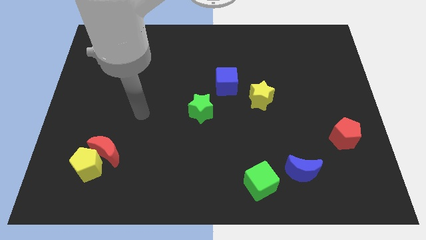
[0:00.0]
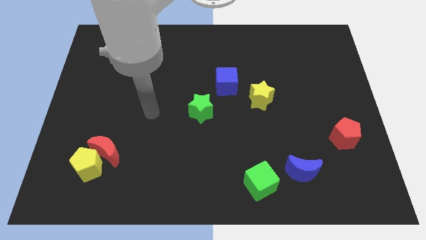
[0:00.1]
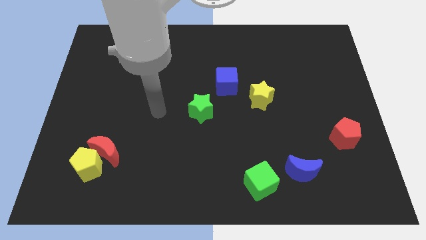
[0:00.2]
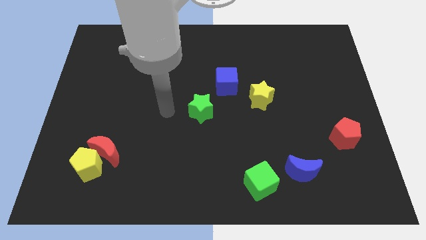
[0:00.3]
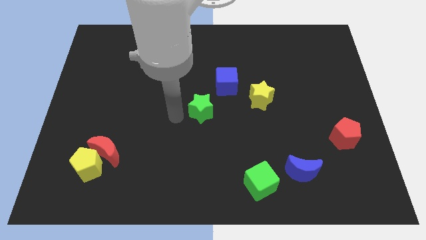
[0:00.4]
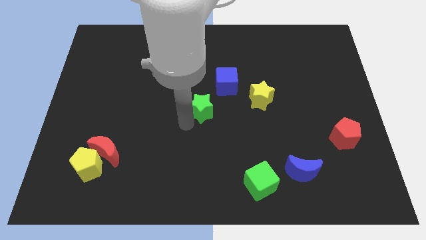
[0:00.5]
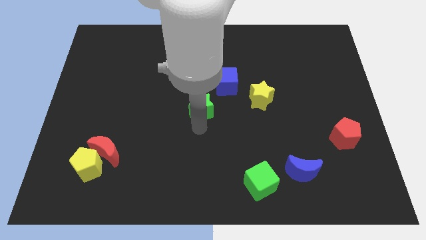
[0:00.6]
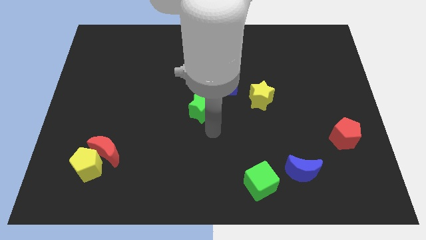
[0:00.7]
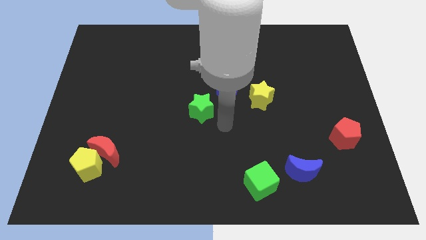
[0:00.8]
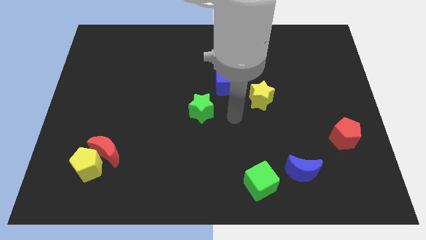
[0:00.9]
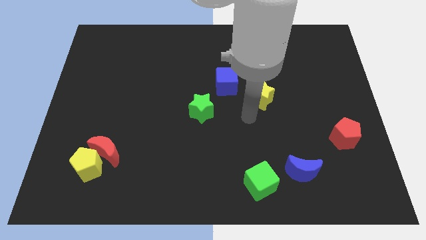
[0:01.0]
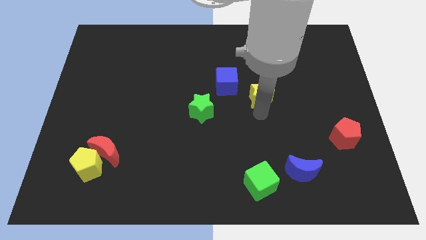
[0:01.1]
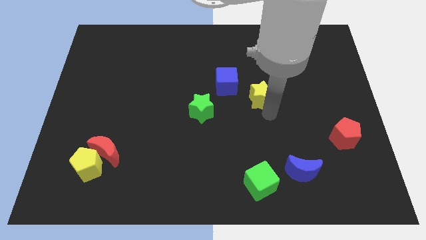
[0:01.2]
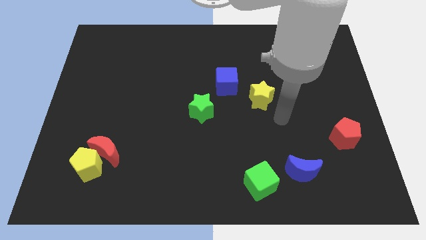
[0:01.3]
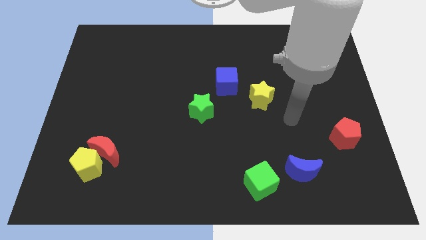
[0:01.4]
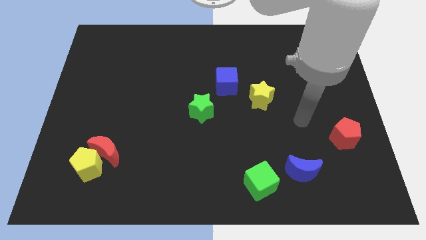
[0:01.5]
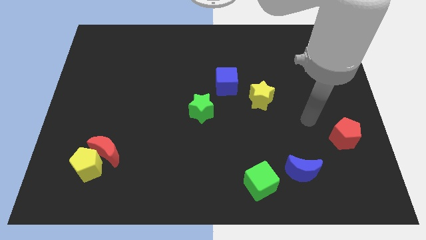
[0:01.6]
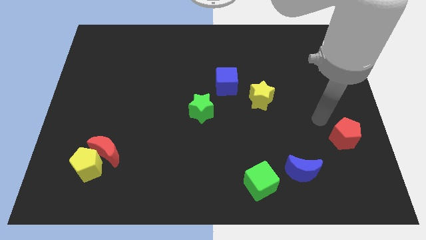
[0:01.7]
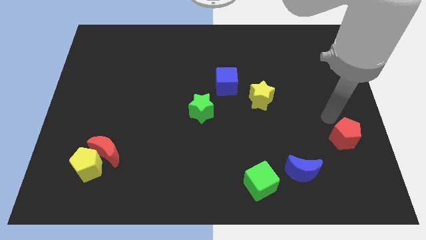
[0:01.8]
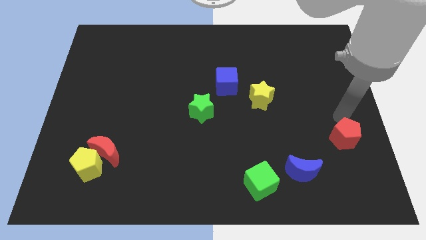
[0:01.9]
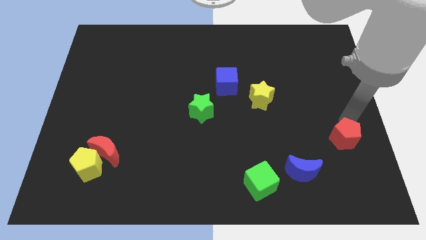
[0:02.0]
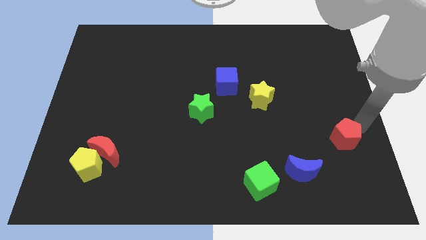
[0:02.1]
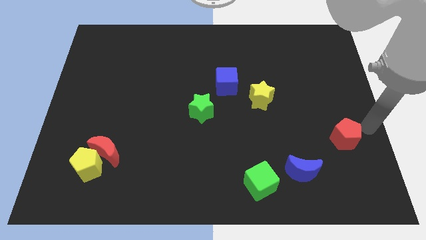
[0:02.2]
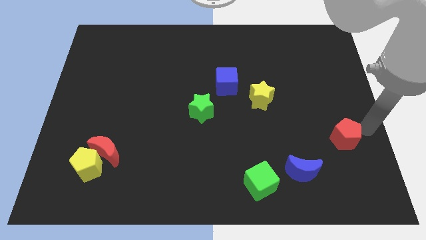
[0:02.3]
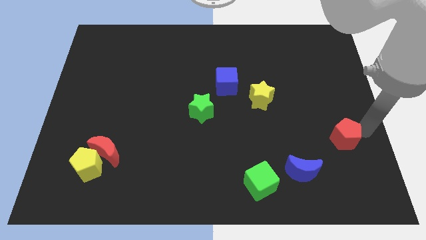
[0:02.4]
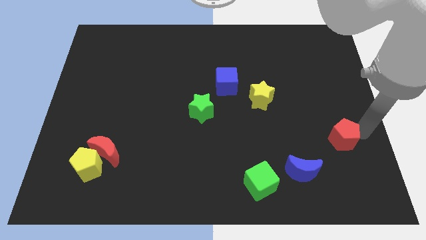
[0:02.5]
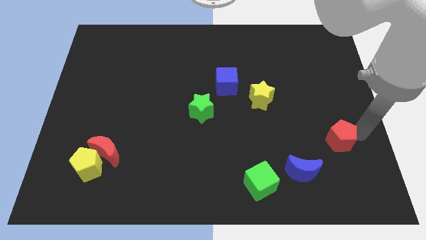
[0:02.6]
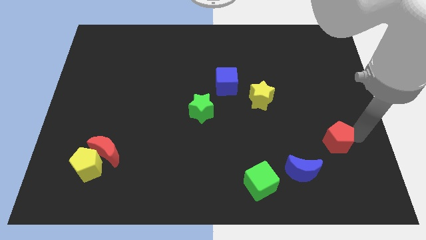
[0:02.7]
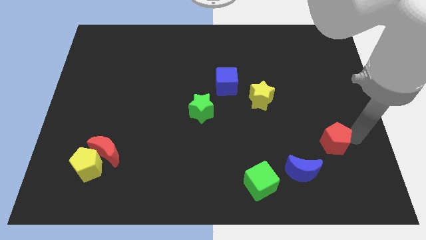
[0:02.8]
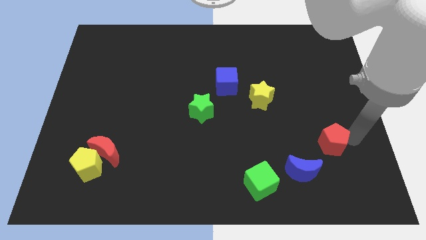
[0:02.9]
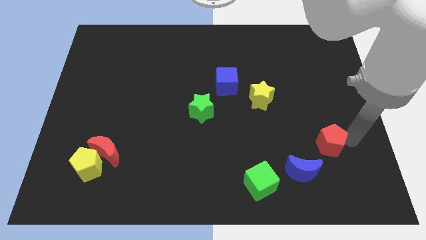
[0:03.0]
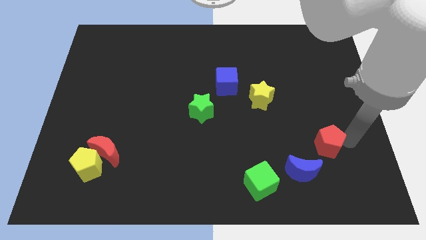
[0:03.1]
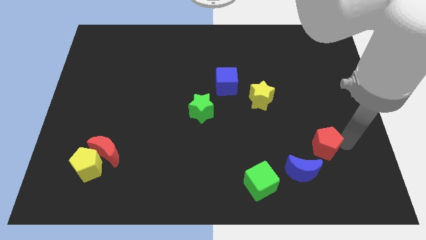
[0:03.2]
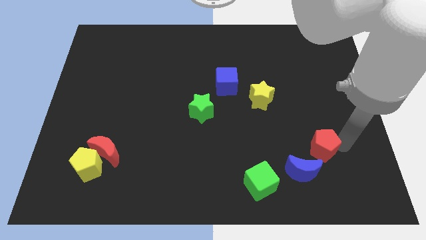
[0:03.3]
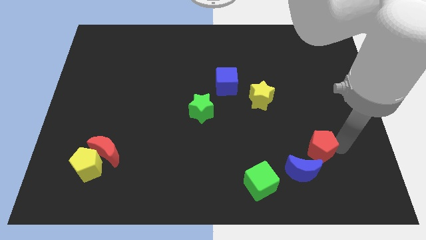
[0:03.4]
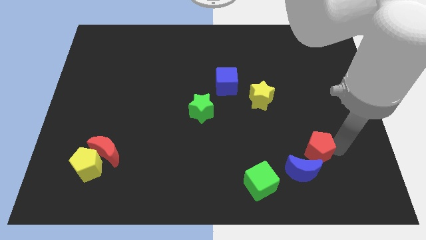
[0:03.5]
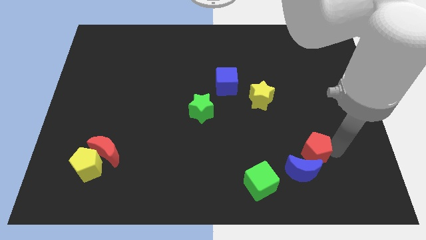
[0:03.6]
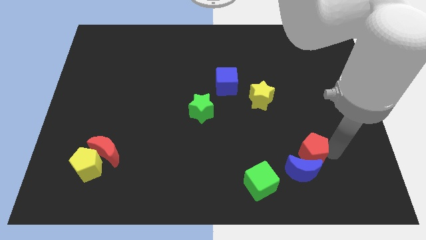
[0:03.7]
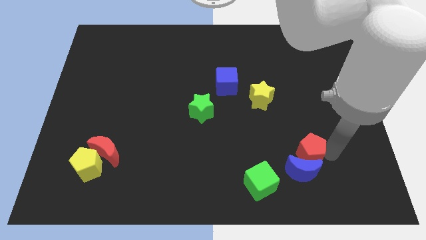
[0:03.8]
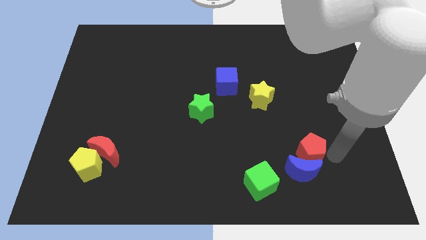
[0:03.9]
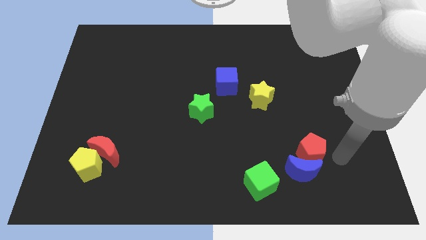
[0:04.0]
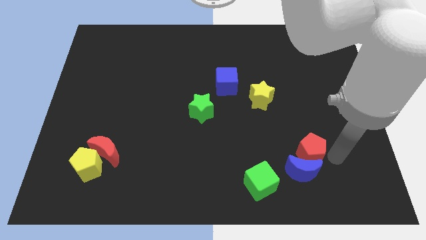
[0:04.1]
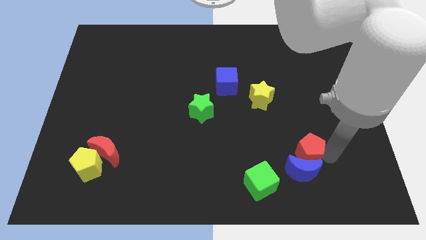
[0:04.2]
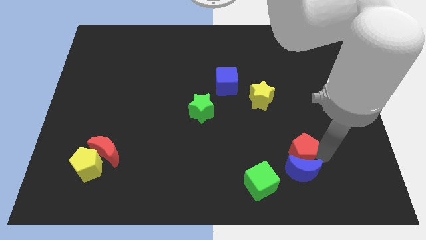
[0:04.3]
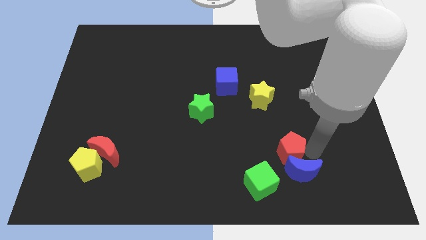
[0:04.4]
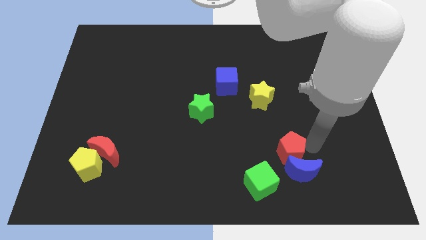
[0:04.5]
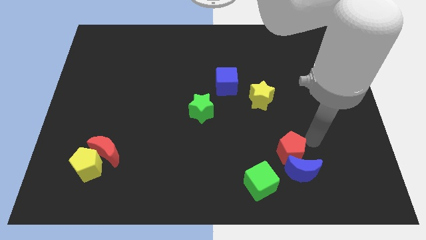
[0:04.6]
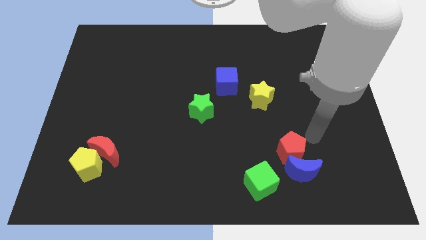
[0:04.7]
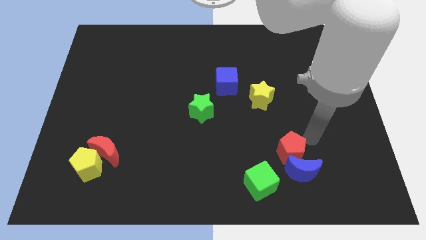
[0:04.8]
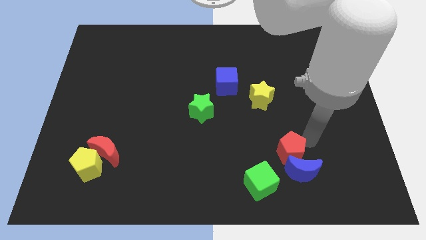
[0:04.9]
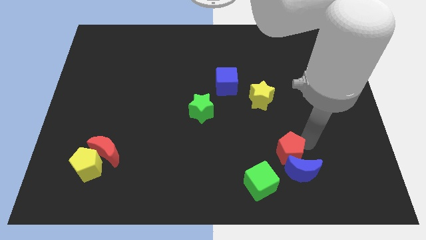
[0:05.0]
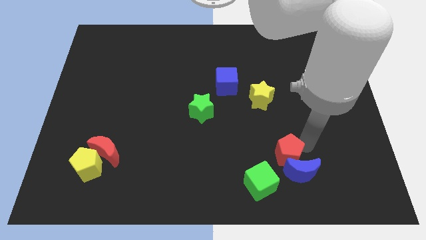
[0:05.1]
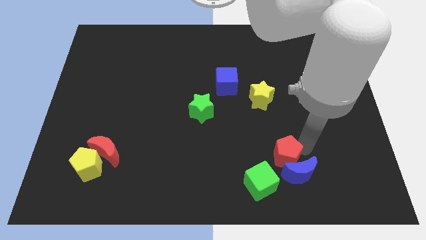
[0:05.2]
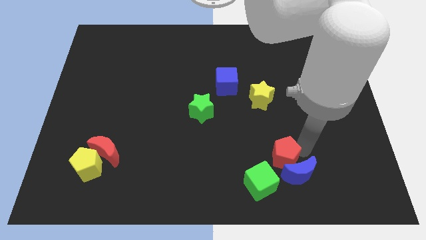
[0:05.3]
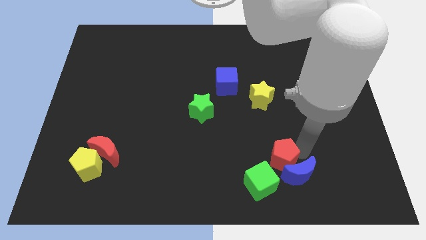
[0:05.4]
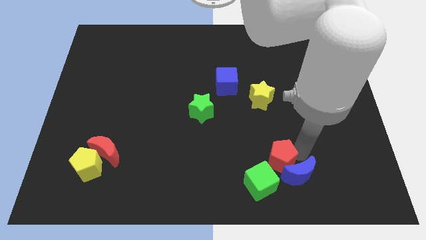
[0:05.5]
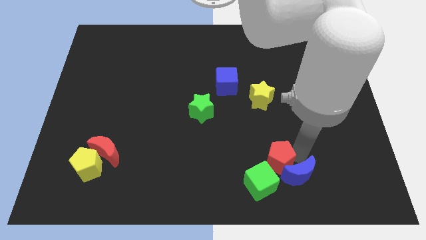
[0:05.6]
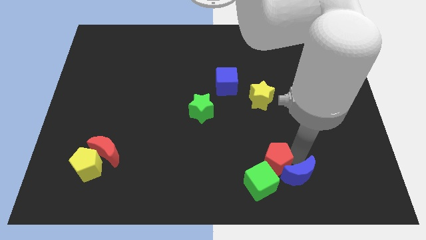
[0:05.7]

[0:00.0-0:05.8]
move the red pentagon to the green cube

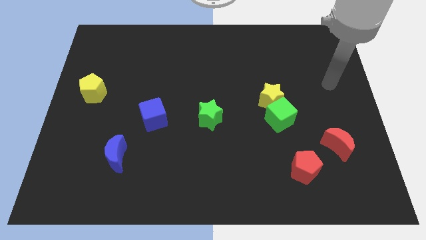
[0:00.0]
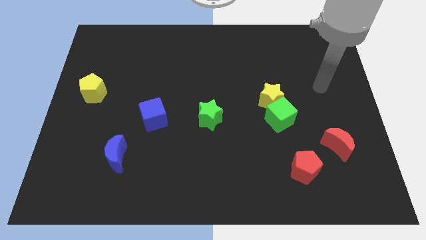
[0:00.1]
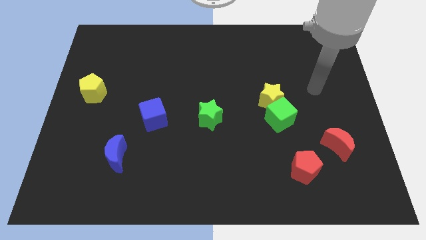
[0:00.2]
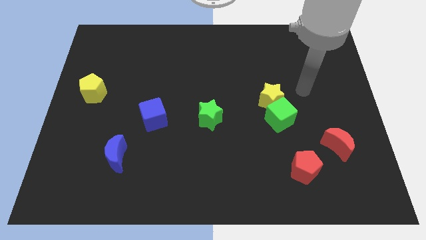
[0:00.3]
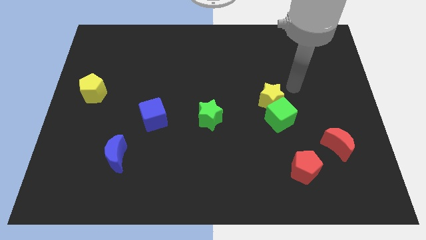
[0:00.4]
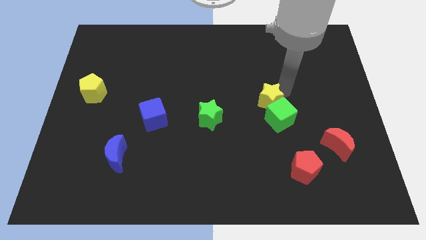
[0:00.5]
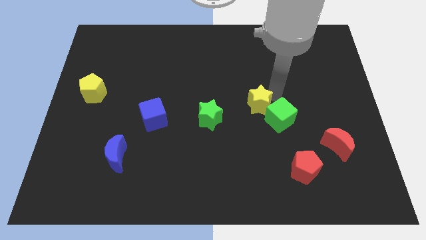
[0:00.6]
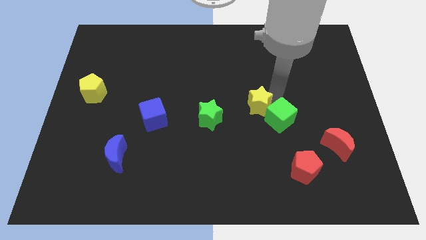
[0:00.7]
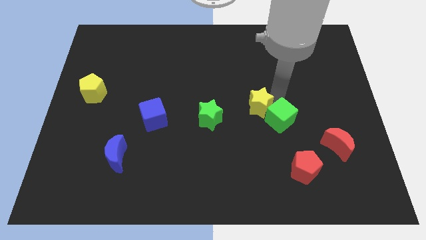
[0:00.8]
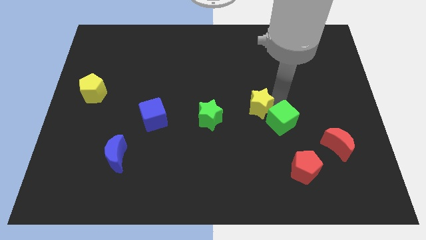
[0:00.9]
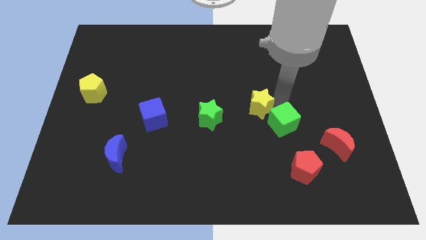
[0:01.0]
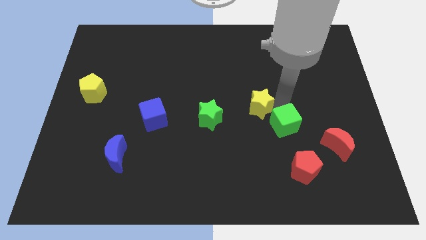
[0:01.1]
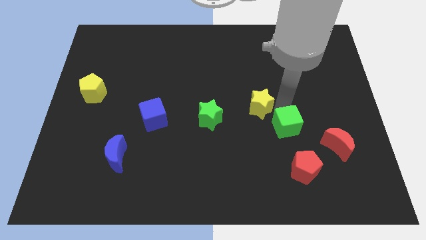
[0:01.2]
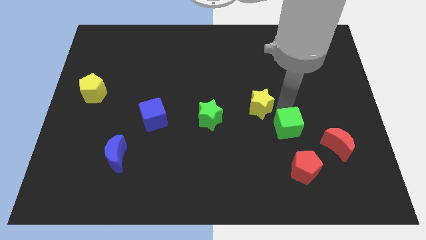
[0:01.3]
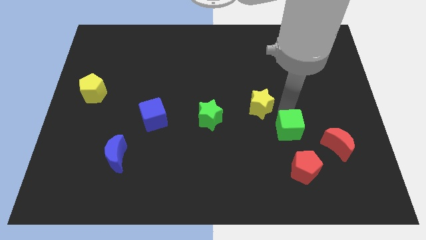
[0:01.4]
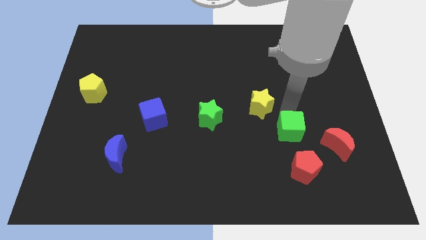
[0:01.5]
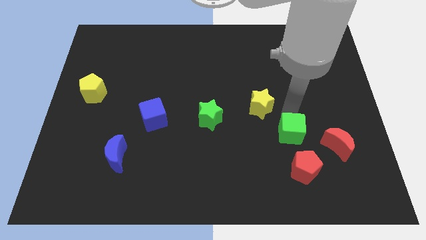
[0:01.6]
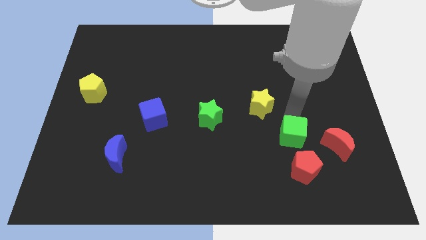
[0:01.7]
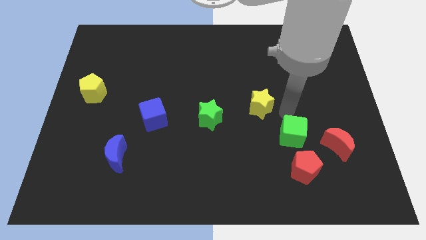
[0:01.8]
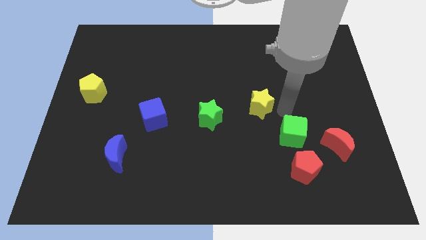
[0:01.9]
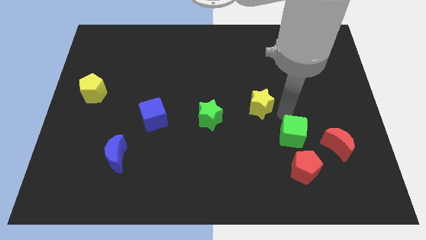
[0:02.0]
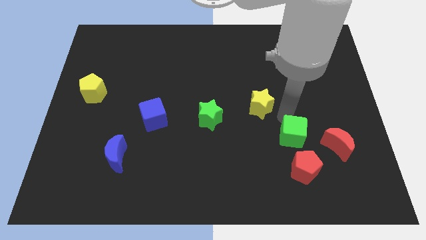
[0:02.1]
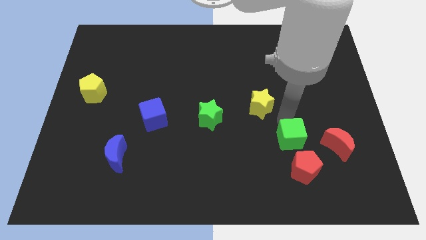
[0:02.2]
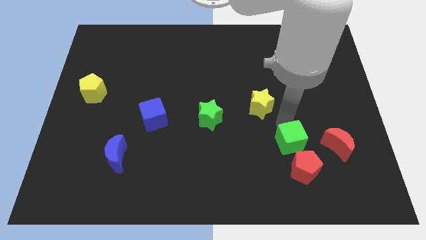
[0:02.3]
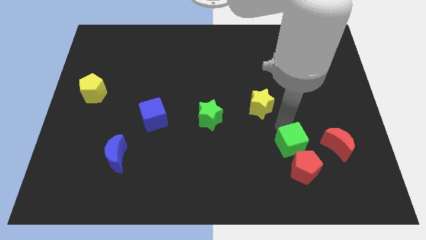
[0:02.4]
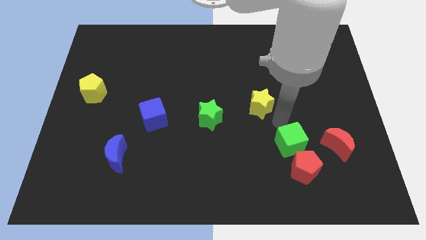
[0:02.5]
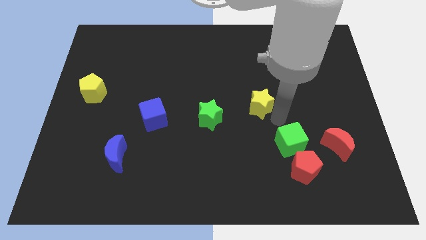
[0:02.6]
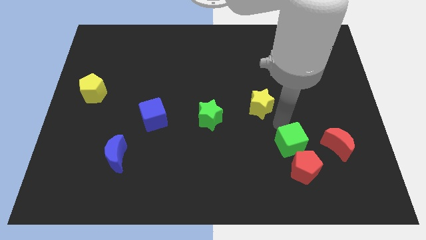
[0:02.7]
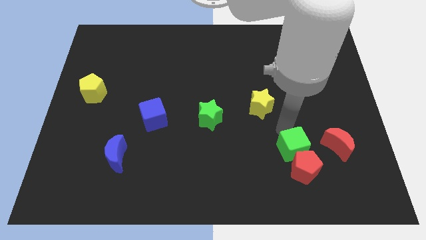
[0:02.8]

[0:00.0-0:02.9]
slide the green cube towards the red pentagon
